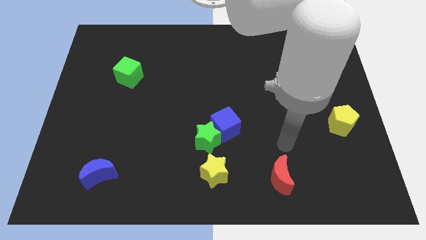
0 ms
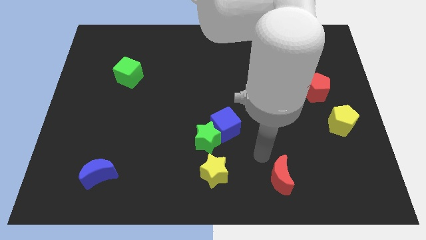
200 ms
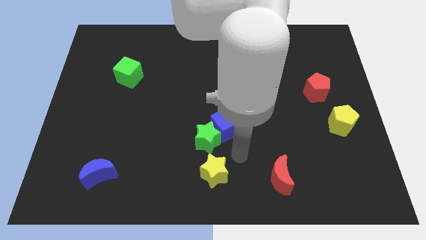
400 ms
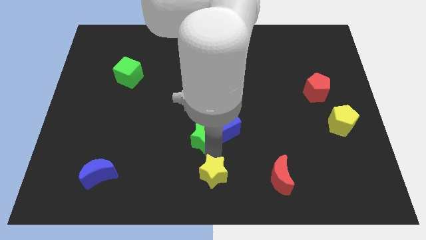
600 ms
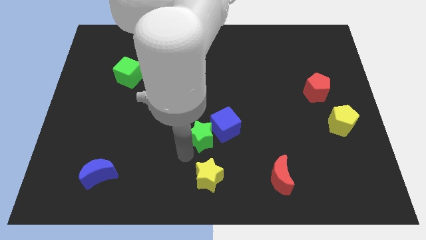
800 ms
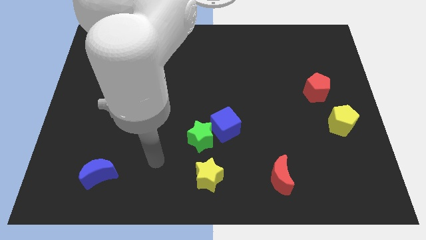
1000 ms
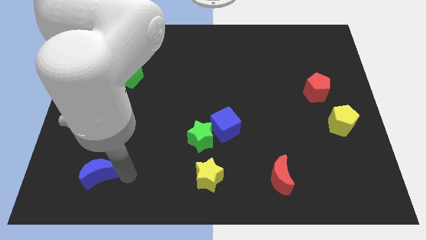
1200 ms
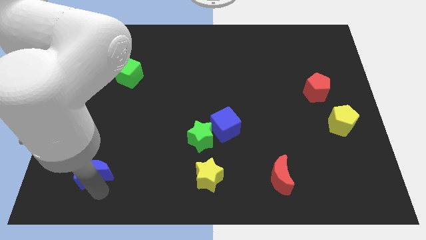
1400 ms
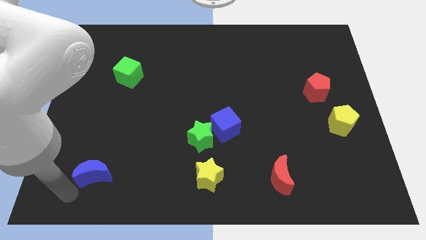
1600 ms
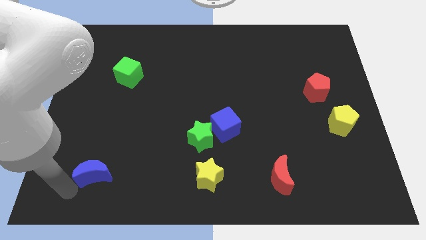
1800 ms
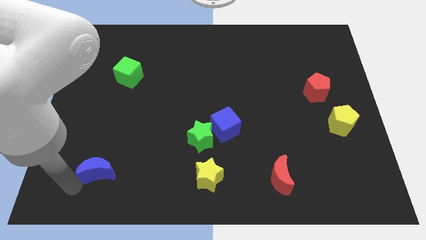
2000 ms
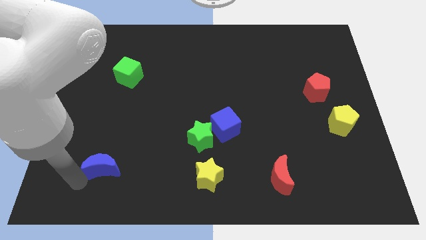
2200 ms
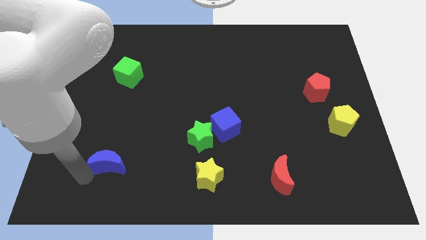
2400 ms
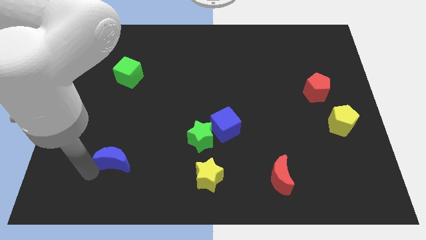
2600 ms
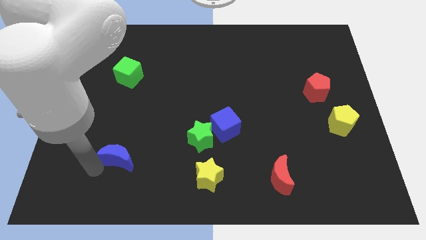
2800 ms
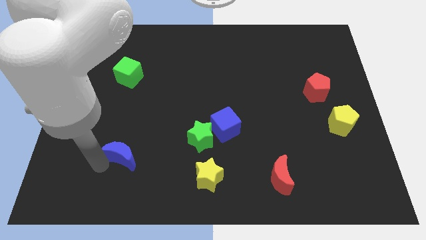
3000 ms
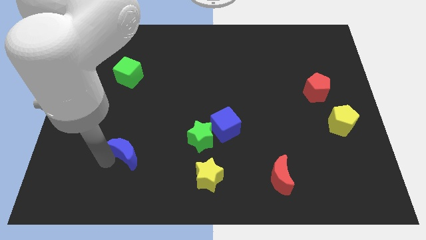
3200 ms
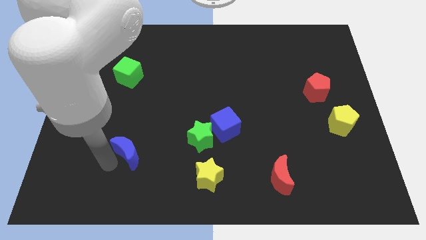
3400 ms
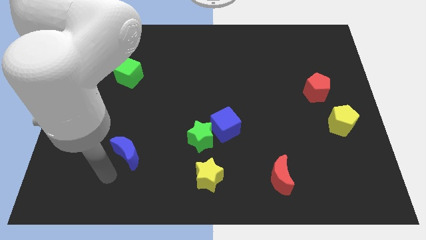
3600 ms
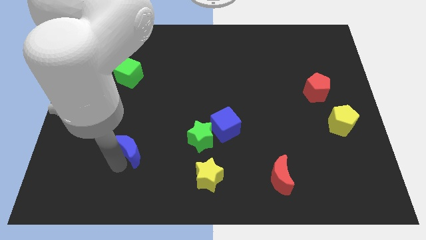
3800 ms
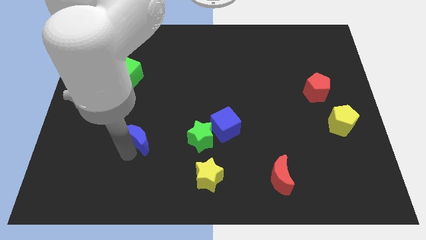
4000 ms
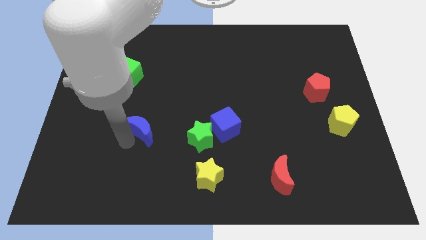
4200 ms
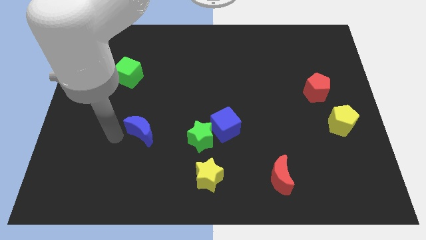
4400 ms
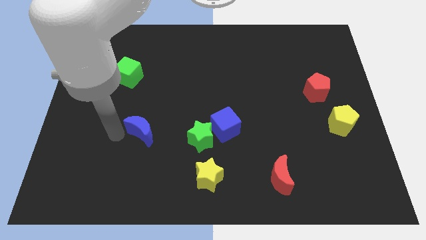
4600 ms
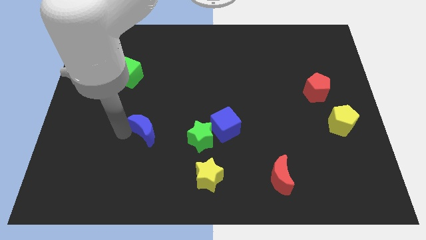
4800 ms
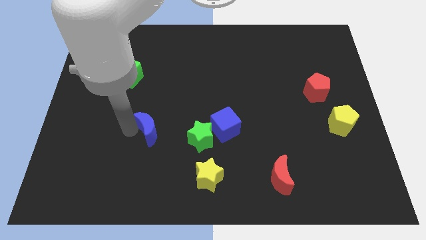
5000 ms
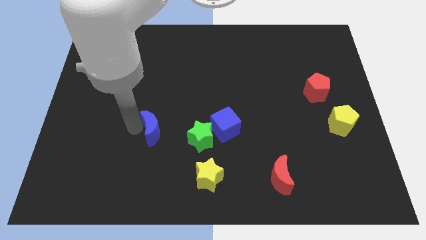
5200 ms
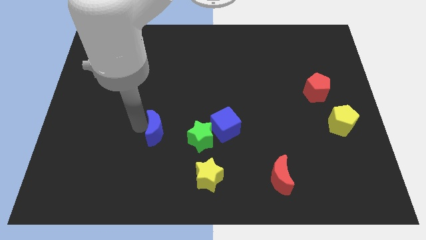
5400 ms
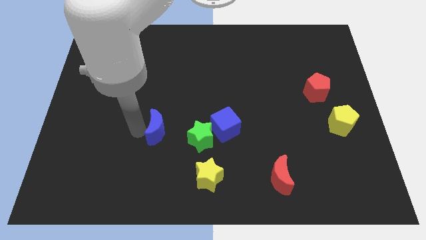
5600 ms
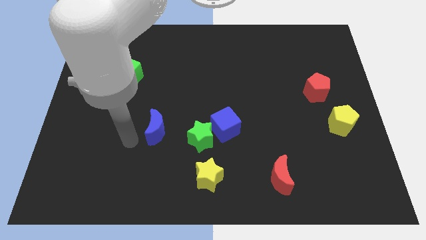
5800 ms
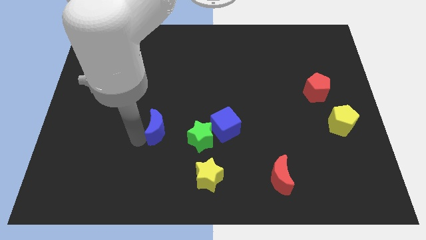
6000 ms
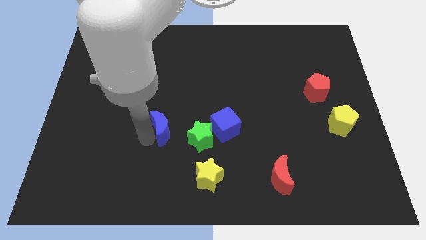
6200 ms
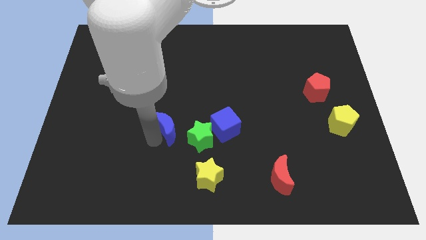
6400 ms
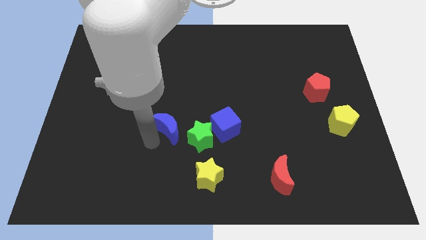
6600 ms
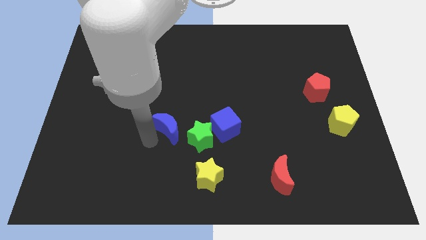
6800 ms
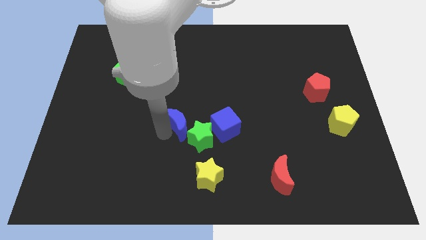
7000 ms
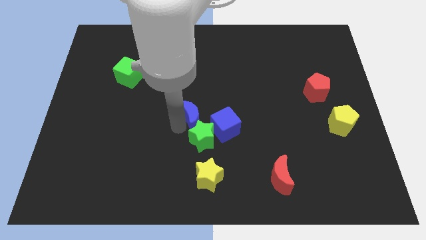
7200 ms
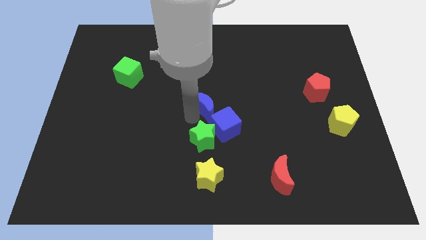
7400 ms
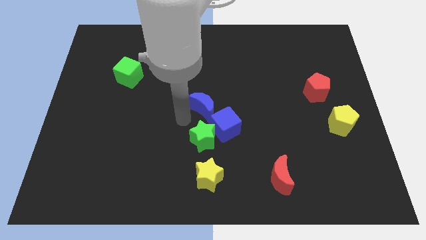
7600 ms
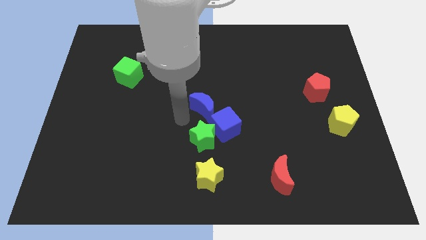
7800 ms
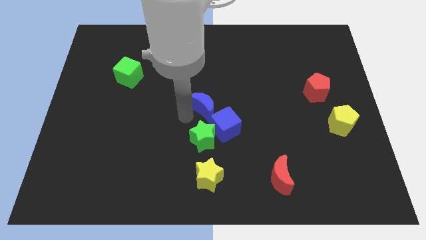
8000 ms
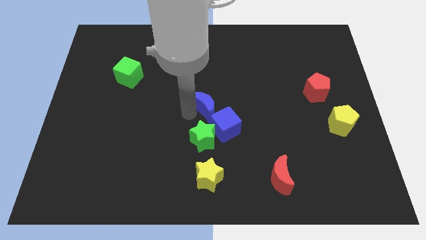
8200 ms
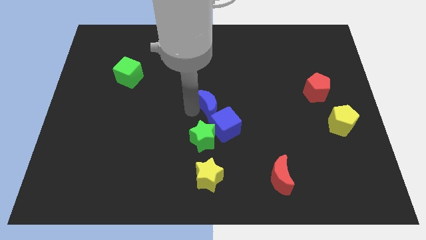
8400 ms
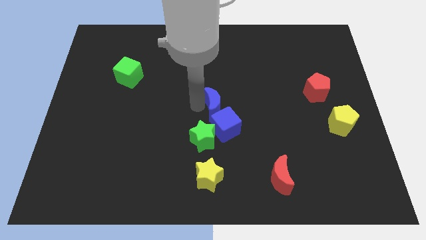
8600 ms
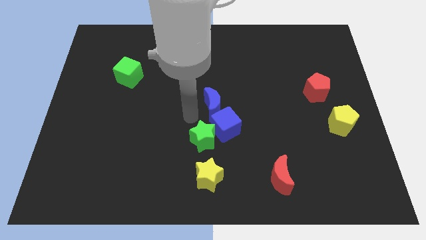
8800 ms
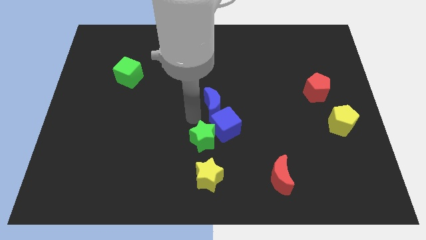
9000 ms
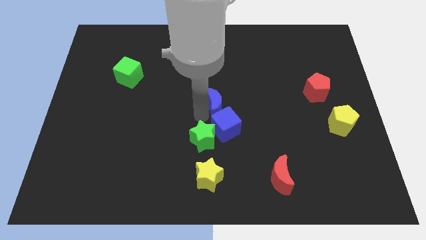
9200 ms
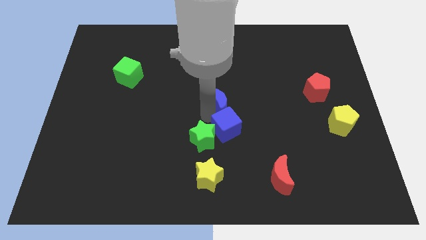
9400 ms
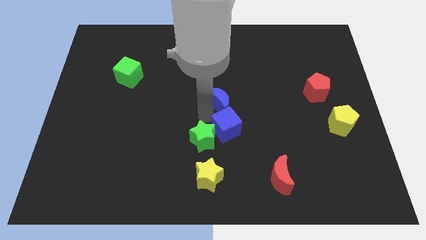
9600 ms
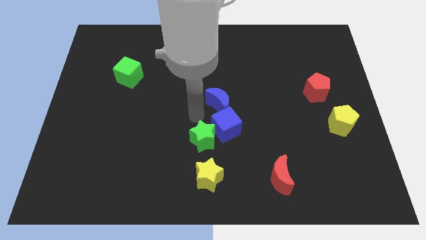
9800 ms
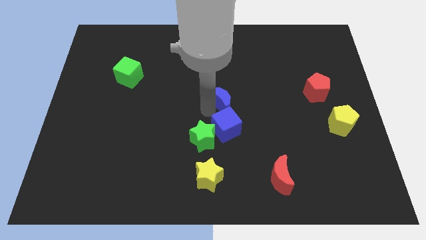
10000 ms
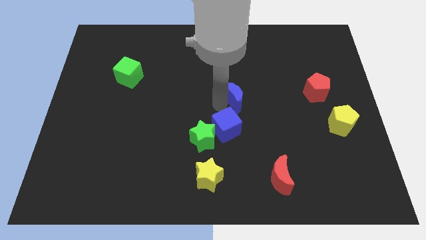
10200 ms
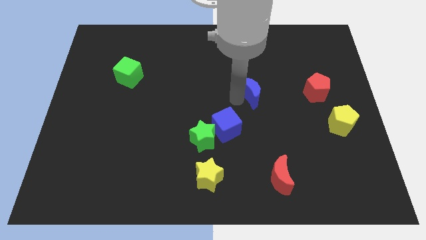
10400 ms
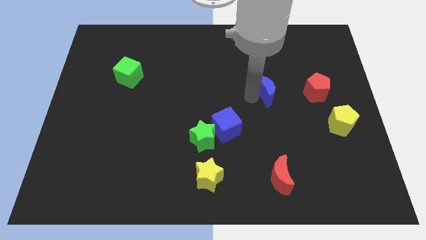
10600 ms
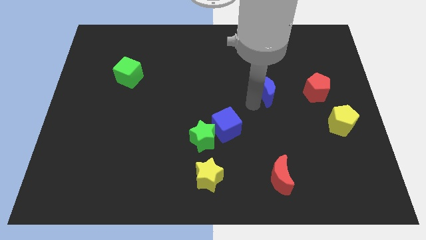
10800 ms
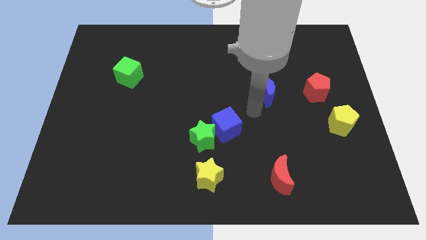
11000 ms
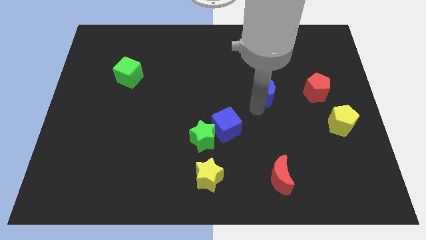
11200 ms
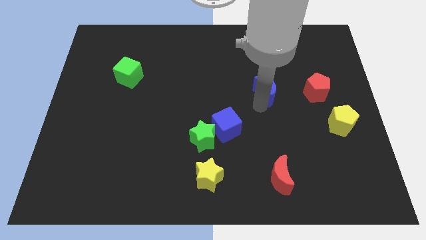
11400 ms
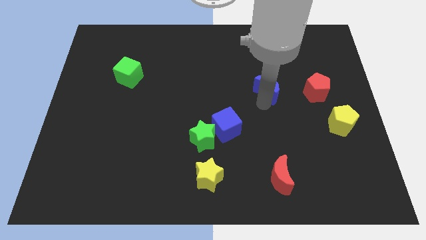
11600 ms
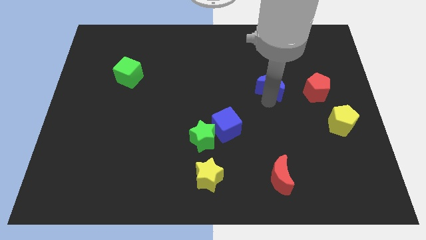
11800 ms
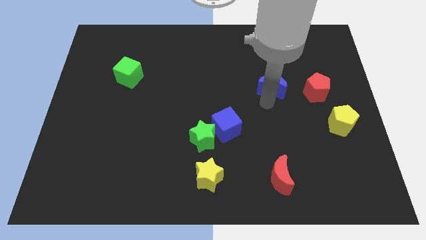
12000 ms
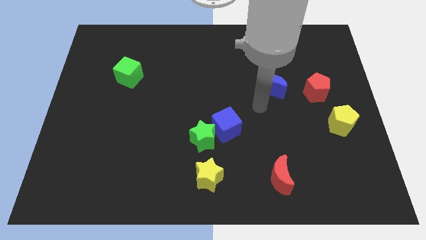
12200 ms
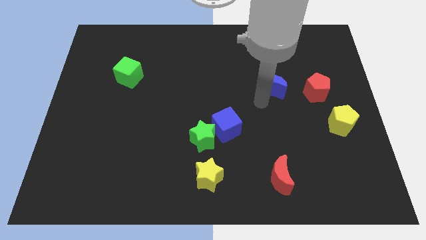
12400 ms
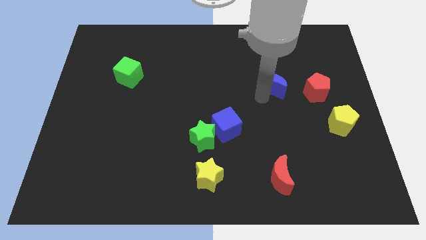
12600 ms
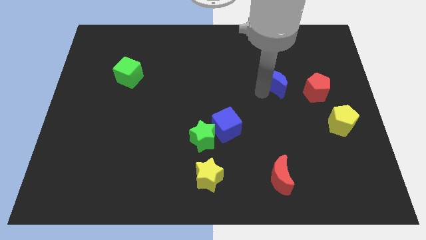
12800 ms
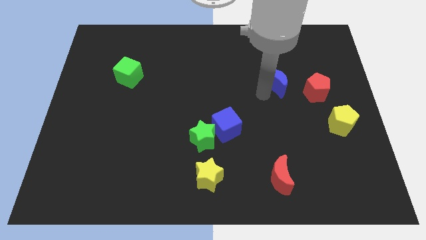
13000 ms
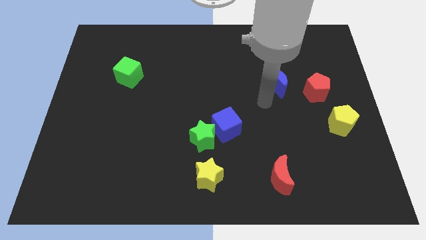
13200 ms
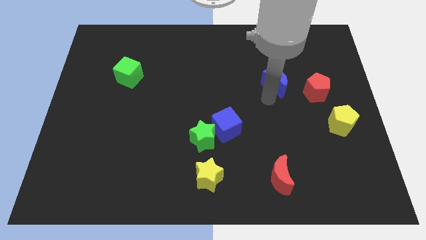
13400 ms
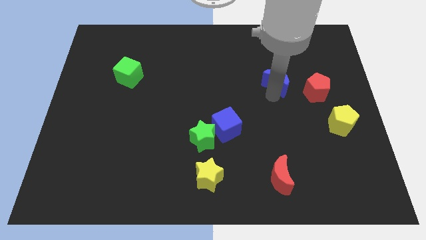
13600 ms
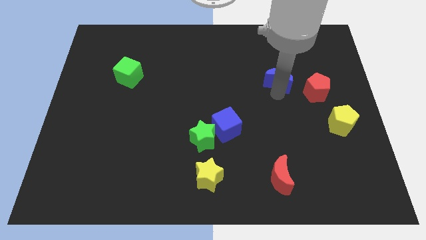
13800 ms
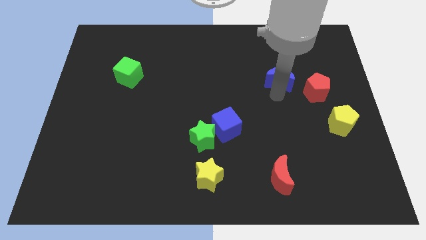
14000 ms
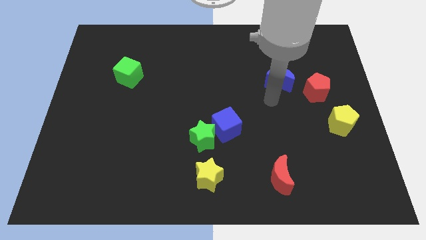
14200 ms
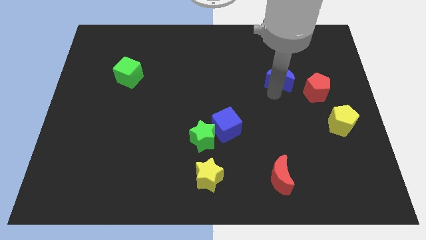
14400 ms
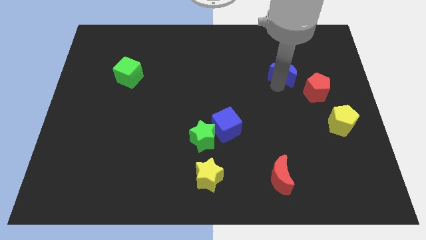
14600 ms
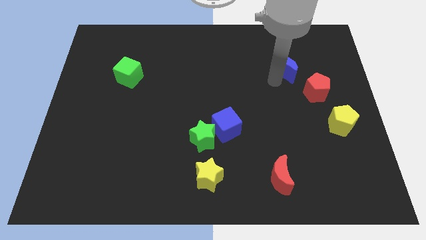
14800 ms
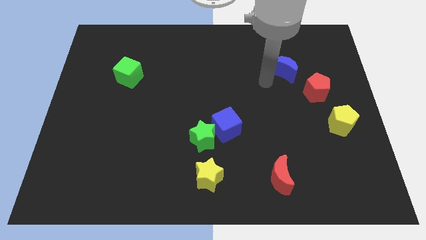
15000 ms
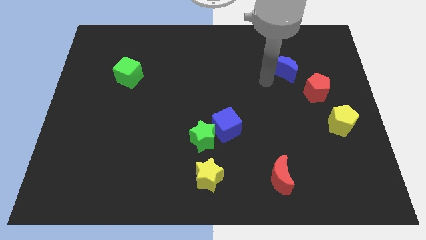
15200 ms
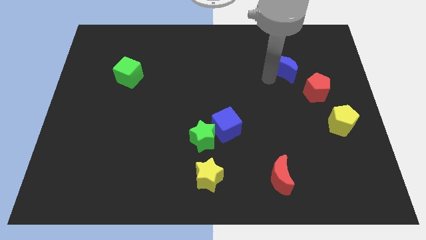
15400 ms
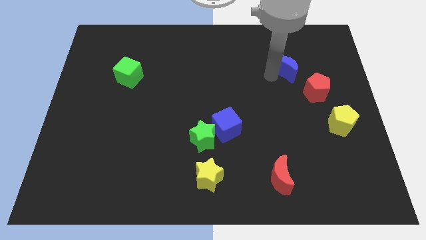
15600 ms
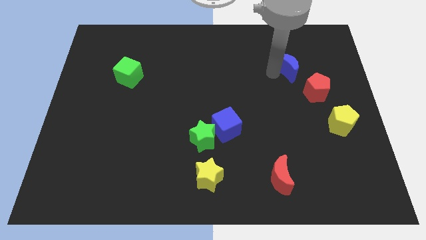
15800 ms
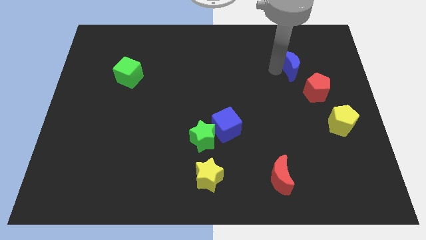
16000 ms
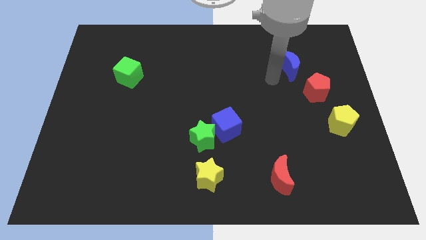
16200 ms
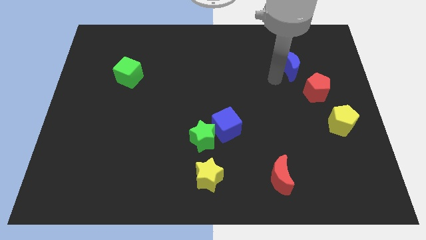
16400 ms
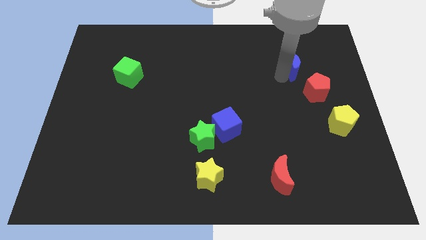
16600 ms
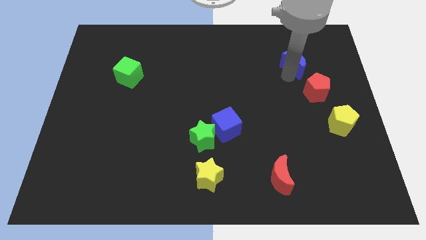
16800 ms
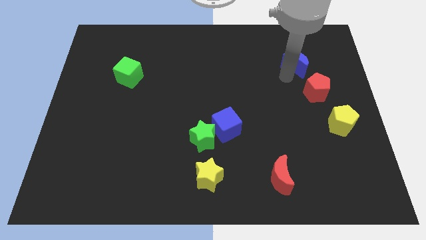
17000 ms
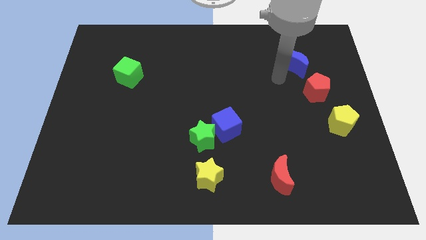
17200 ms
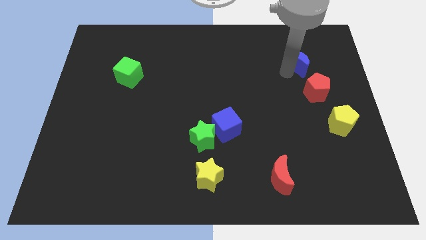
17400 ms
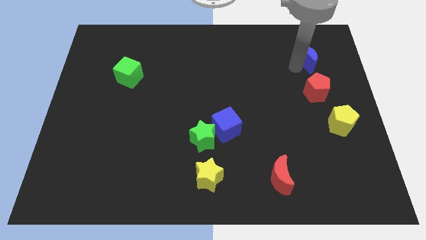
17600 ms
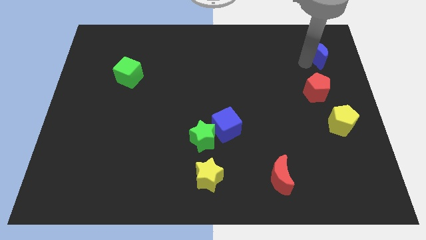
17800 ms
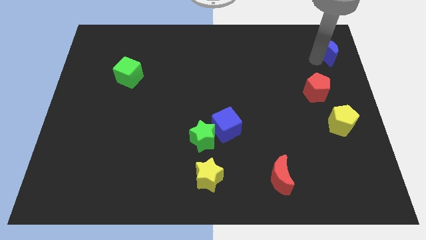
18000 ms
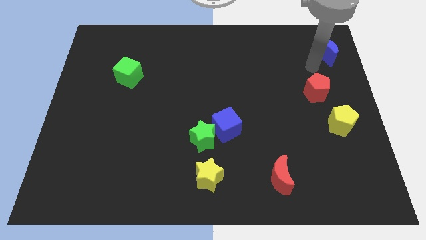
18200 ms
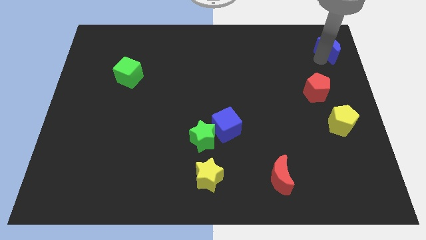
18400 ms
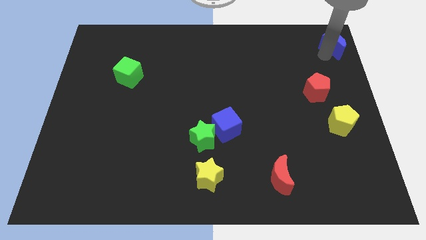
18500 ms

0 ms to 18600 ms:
push the blue moon to the top right corner
